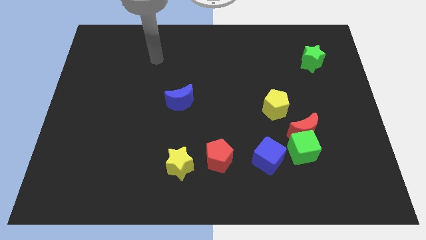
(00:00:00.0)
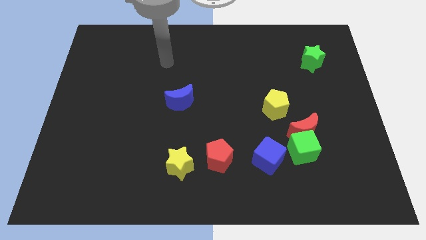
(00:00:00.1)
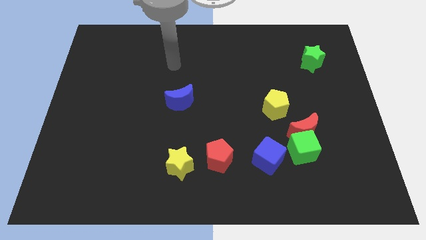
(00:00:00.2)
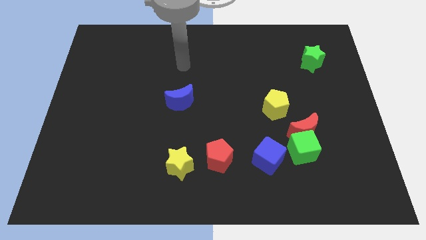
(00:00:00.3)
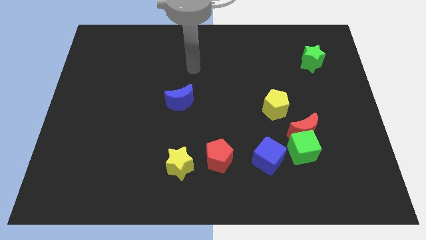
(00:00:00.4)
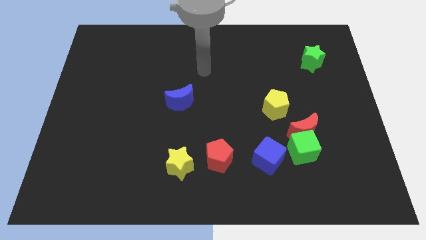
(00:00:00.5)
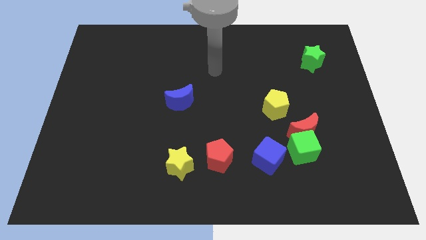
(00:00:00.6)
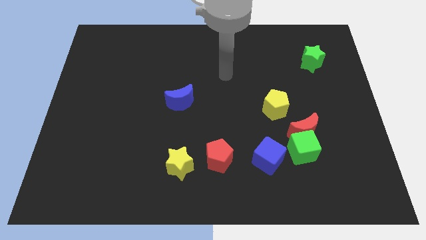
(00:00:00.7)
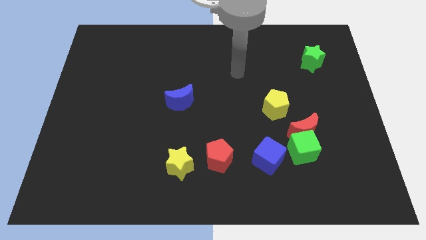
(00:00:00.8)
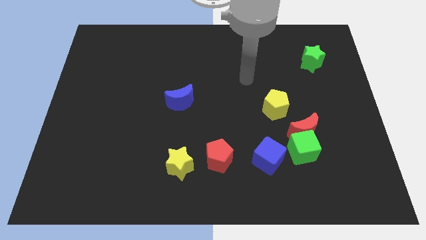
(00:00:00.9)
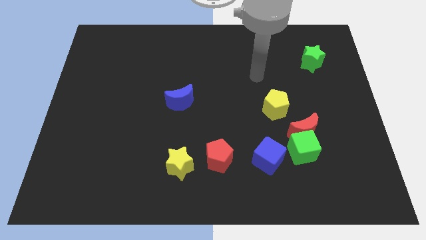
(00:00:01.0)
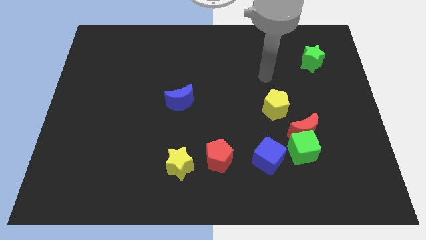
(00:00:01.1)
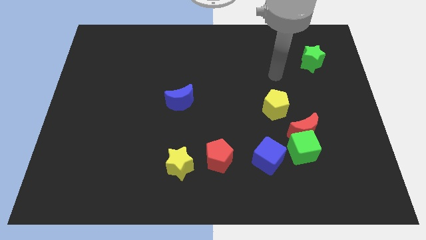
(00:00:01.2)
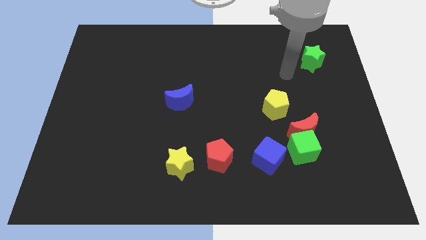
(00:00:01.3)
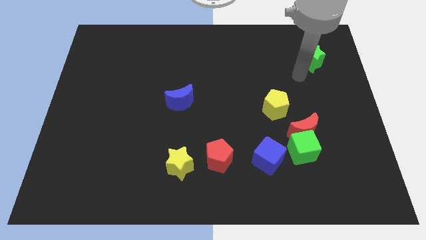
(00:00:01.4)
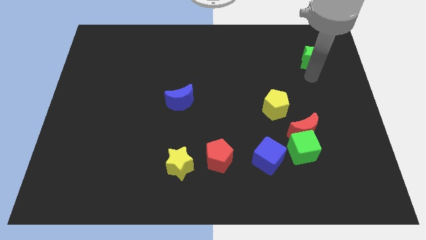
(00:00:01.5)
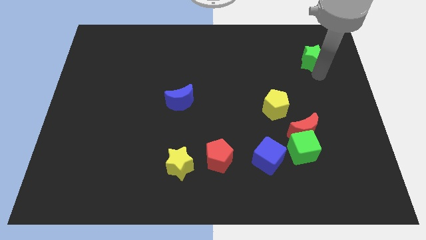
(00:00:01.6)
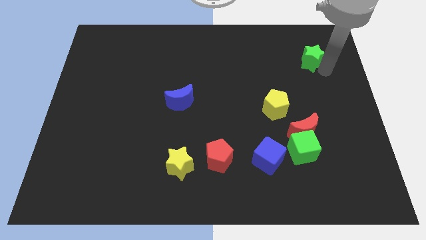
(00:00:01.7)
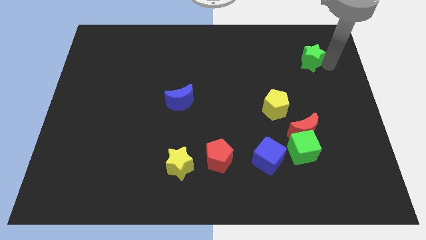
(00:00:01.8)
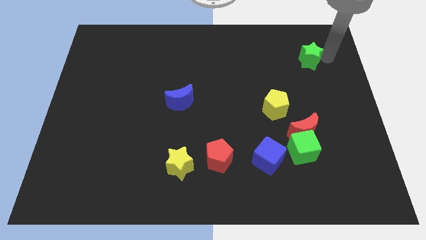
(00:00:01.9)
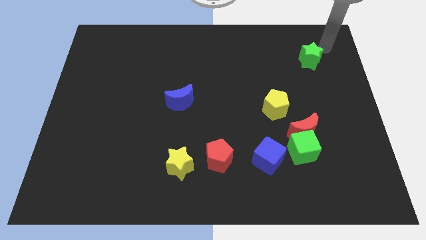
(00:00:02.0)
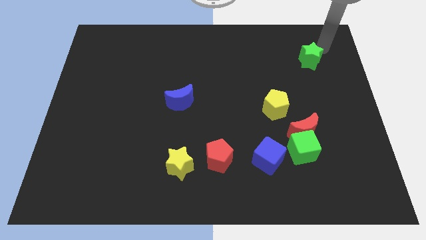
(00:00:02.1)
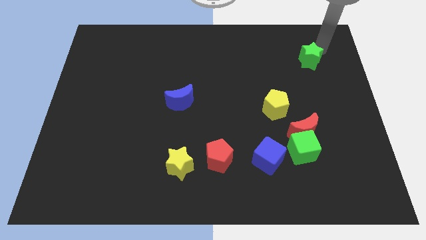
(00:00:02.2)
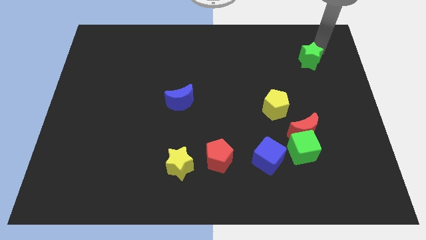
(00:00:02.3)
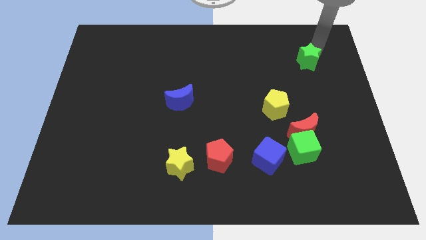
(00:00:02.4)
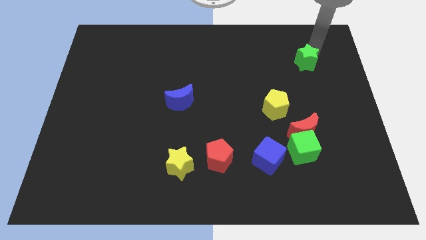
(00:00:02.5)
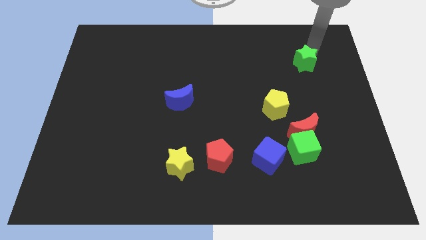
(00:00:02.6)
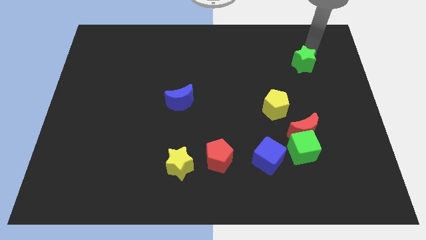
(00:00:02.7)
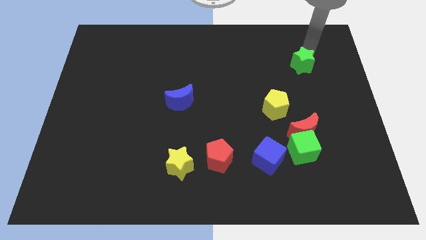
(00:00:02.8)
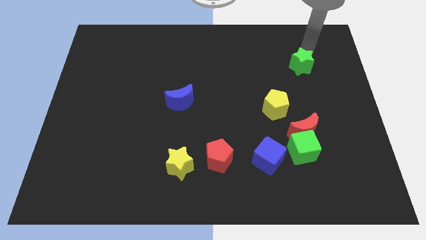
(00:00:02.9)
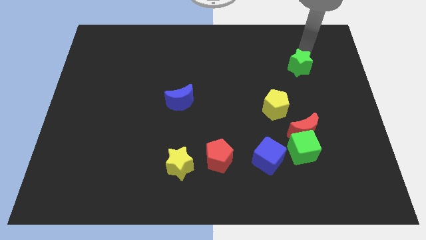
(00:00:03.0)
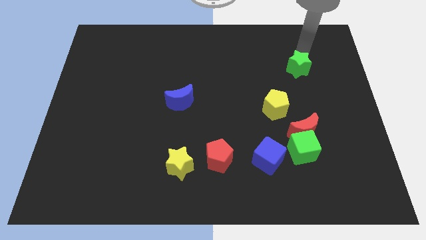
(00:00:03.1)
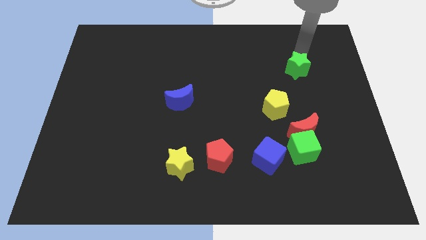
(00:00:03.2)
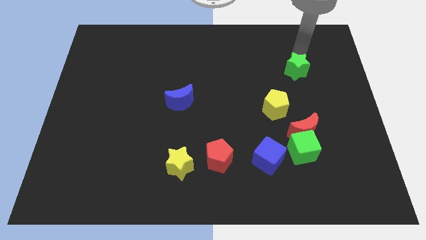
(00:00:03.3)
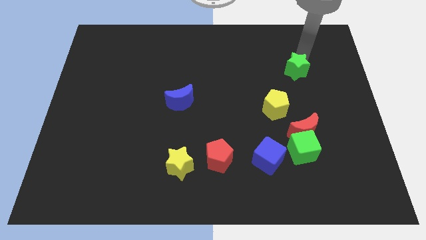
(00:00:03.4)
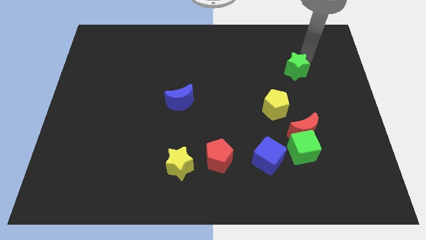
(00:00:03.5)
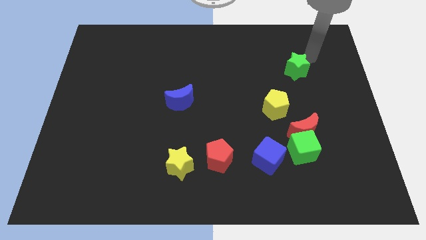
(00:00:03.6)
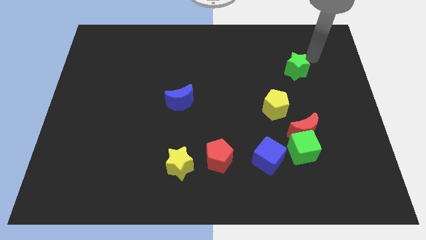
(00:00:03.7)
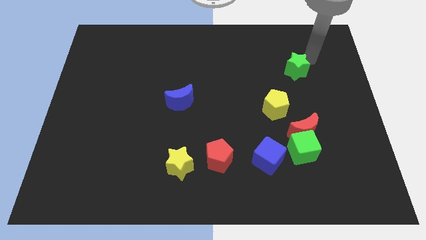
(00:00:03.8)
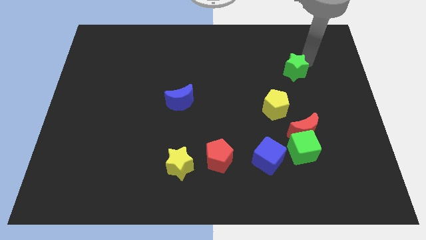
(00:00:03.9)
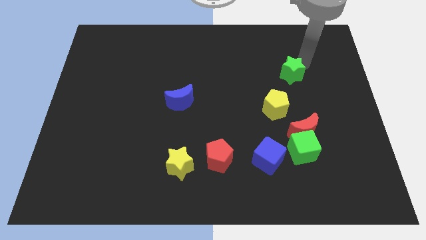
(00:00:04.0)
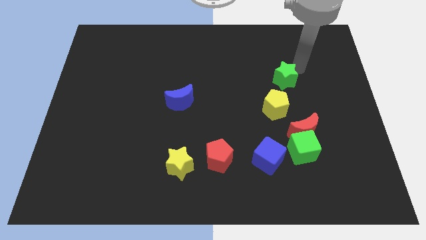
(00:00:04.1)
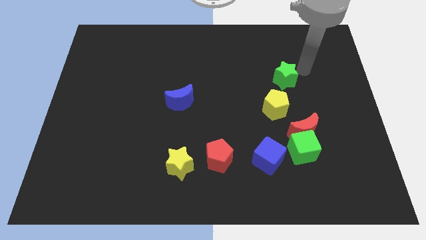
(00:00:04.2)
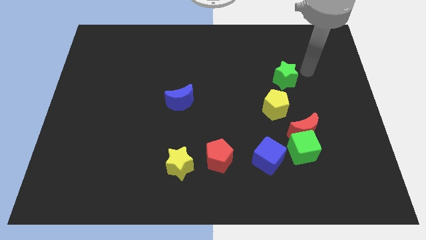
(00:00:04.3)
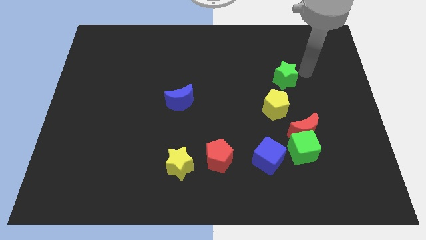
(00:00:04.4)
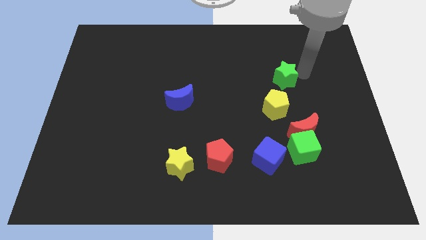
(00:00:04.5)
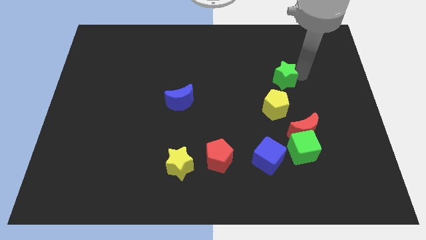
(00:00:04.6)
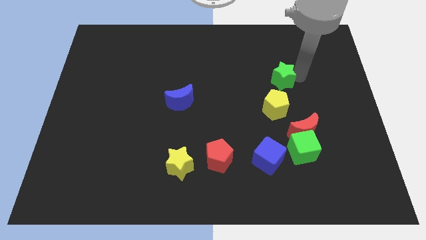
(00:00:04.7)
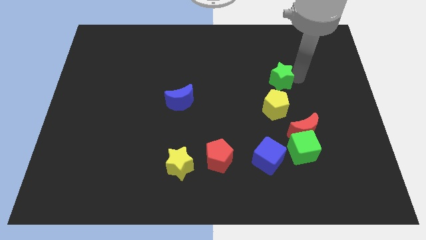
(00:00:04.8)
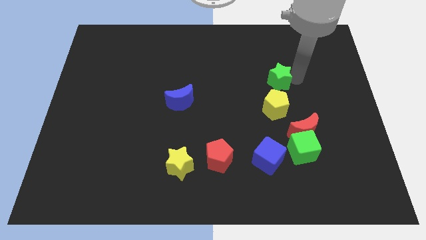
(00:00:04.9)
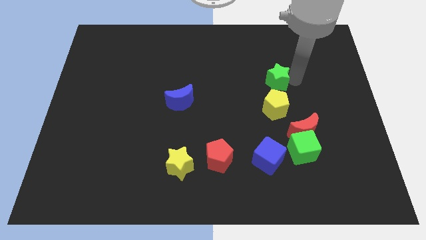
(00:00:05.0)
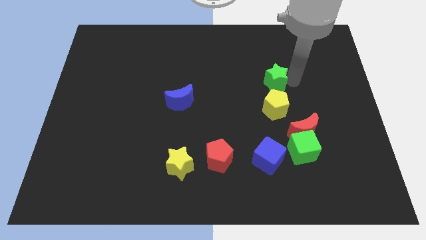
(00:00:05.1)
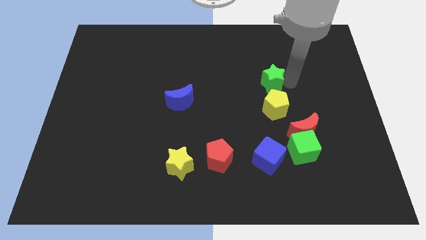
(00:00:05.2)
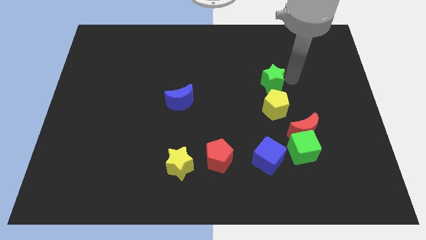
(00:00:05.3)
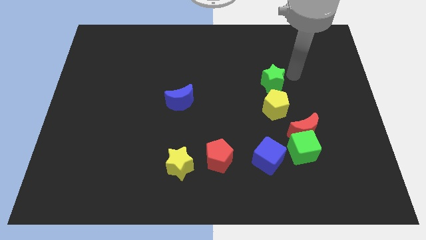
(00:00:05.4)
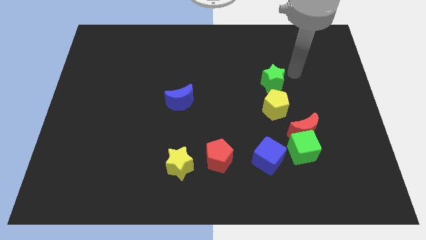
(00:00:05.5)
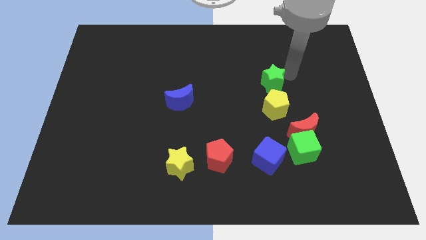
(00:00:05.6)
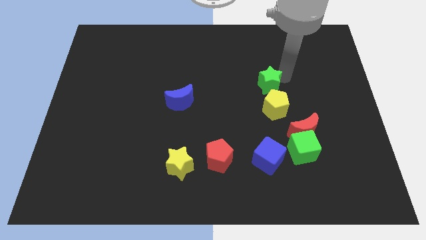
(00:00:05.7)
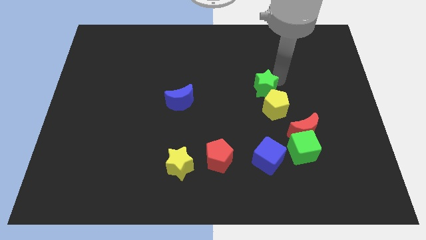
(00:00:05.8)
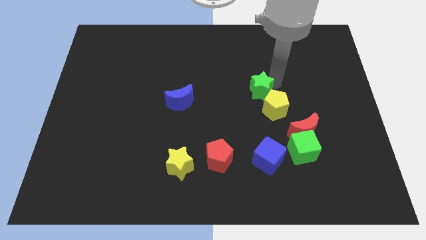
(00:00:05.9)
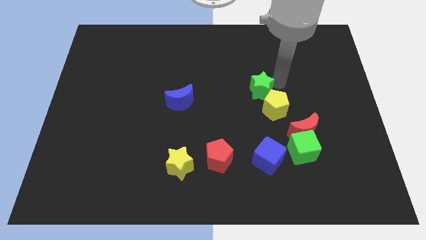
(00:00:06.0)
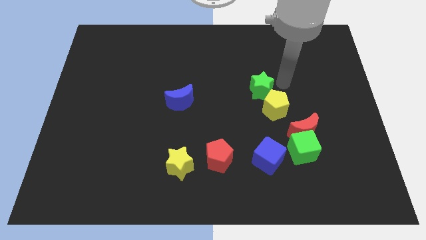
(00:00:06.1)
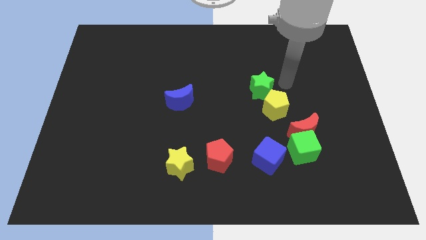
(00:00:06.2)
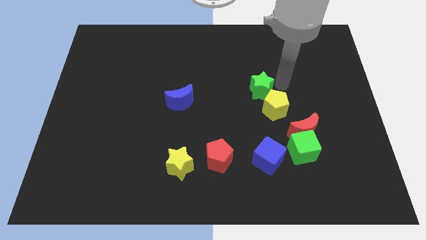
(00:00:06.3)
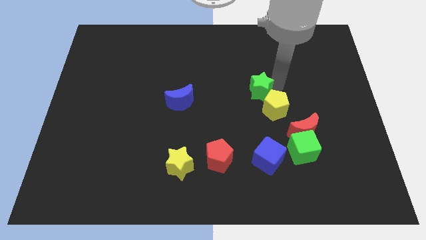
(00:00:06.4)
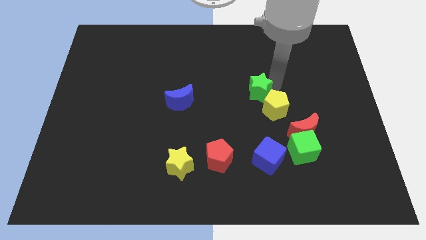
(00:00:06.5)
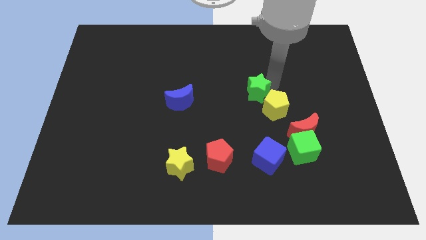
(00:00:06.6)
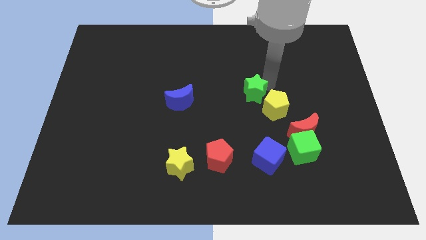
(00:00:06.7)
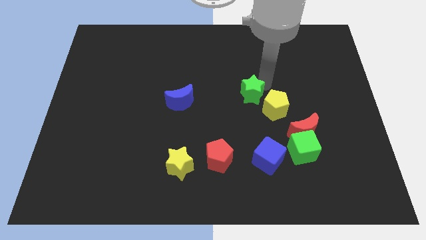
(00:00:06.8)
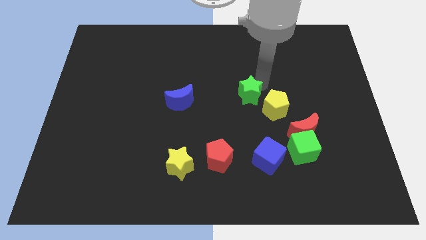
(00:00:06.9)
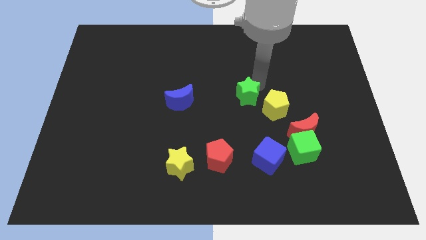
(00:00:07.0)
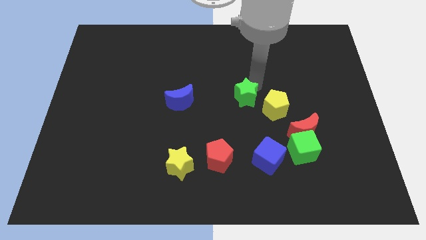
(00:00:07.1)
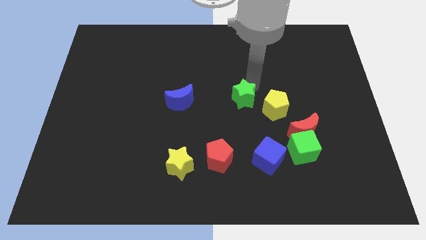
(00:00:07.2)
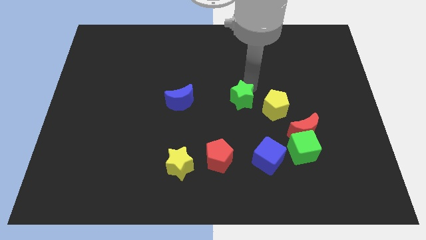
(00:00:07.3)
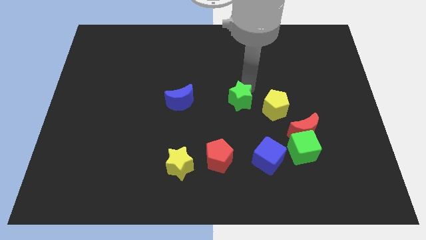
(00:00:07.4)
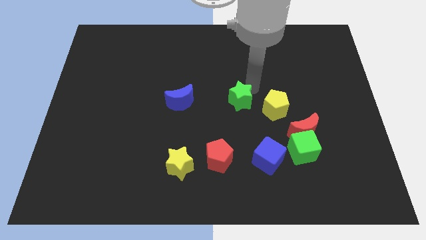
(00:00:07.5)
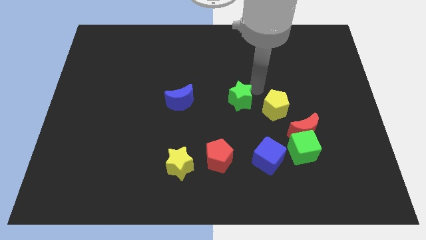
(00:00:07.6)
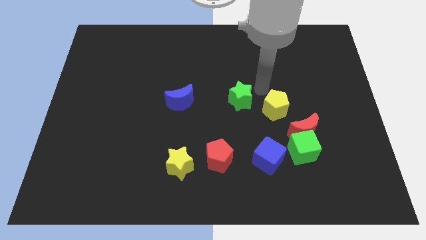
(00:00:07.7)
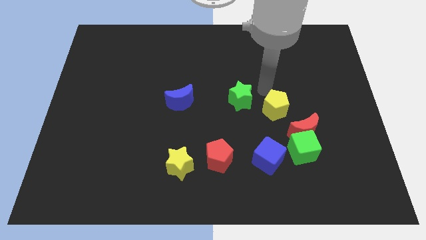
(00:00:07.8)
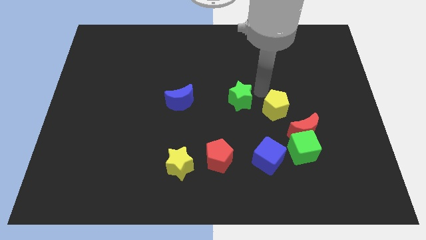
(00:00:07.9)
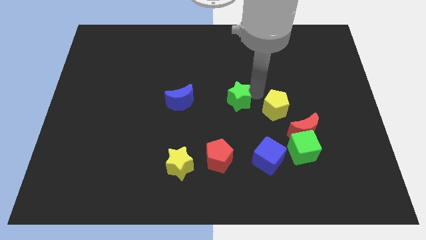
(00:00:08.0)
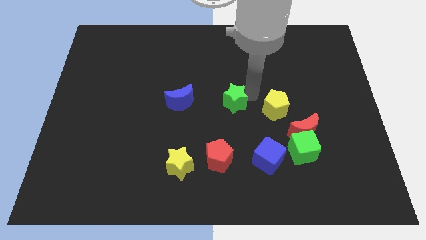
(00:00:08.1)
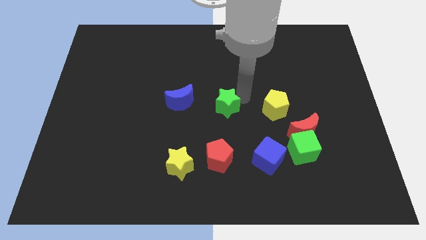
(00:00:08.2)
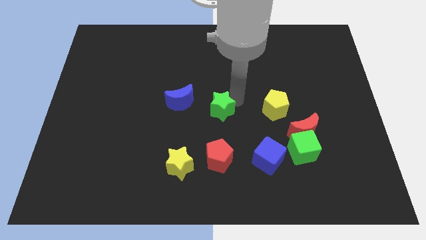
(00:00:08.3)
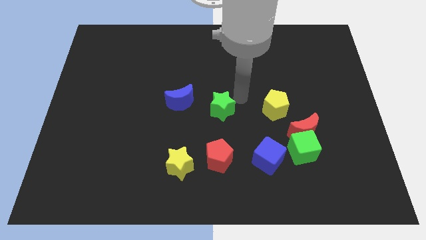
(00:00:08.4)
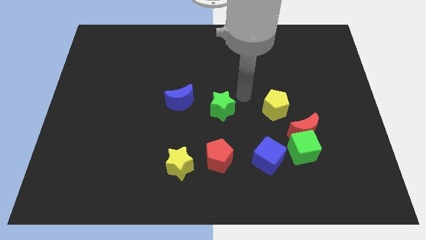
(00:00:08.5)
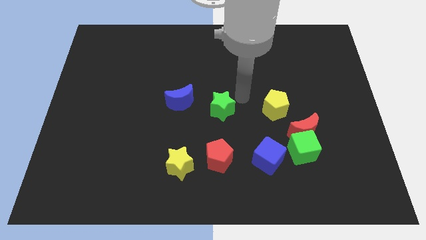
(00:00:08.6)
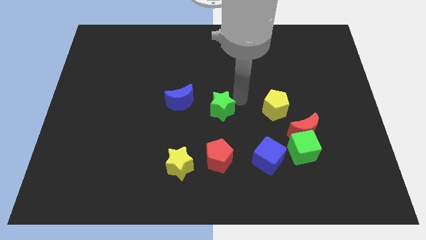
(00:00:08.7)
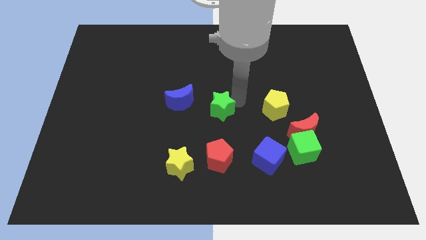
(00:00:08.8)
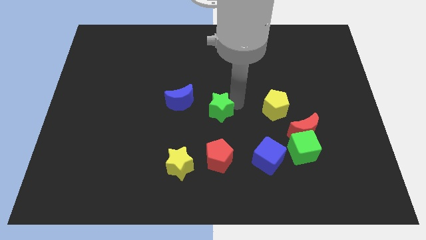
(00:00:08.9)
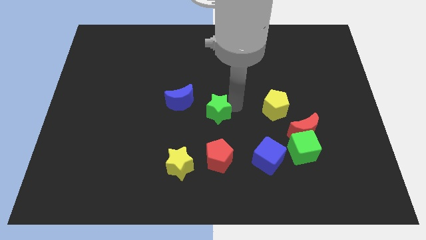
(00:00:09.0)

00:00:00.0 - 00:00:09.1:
push the green star to the bottom right side of the blue moon
